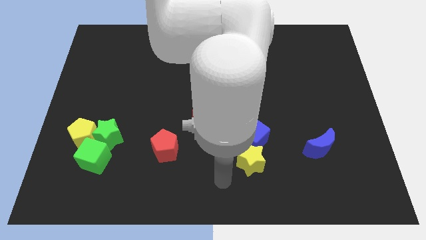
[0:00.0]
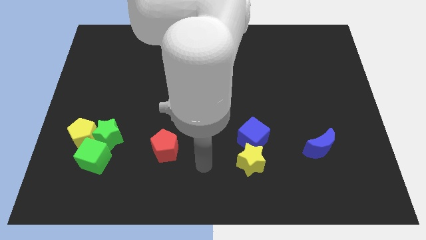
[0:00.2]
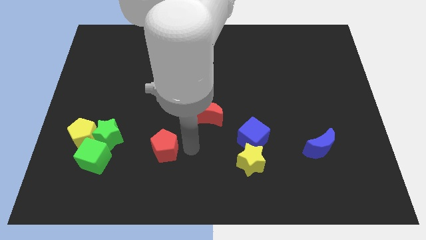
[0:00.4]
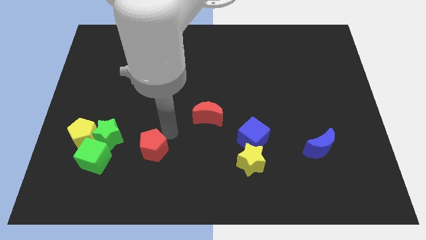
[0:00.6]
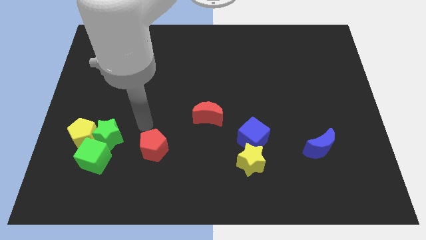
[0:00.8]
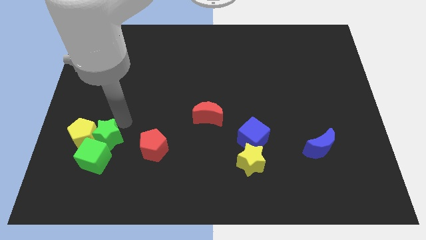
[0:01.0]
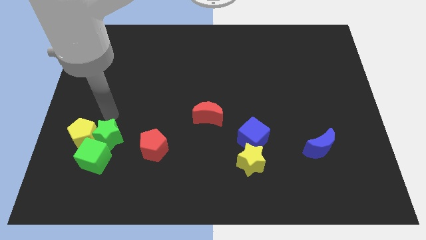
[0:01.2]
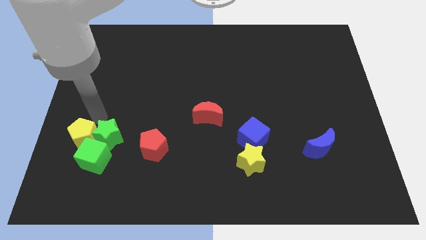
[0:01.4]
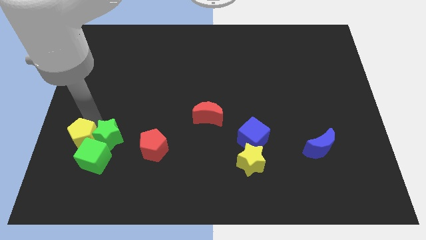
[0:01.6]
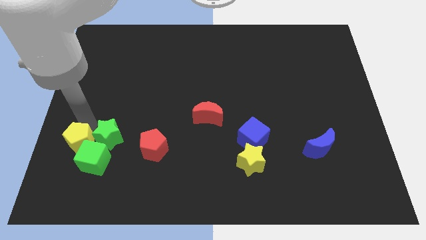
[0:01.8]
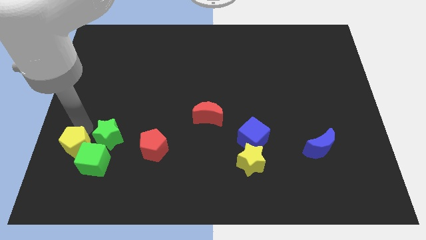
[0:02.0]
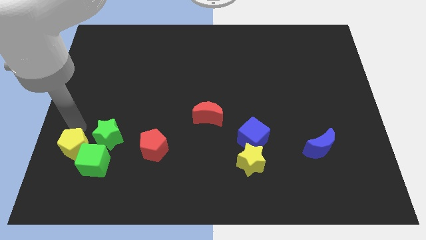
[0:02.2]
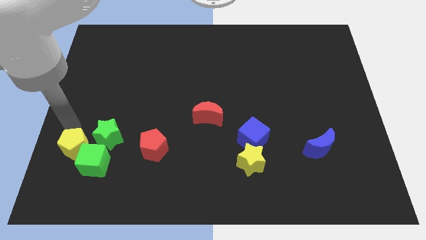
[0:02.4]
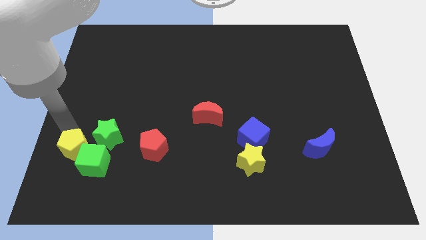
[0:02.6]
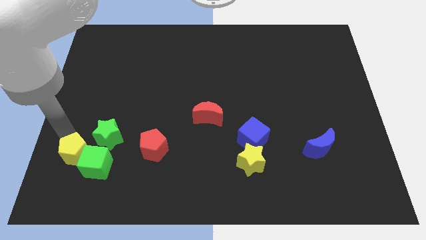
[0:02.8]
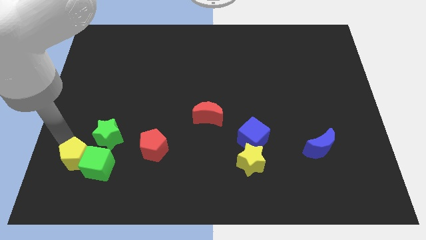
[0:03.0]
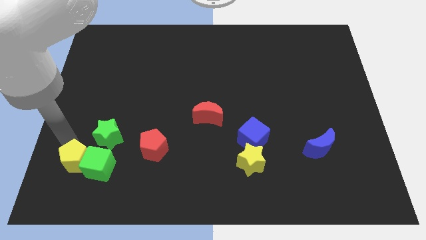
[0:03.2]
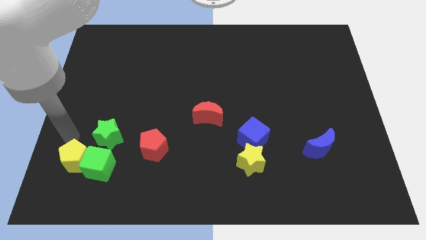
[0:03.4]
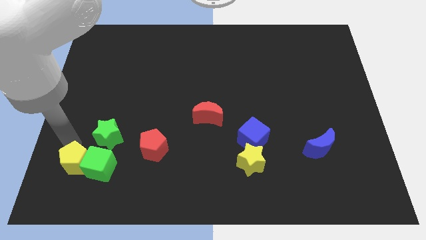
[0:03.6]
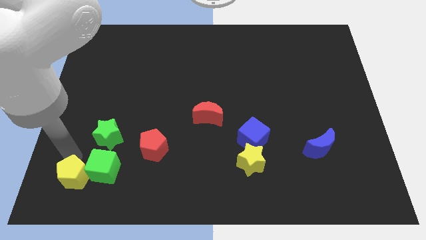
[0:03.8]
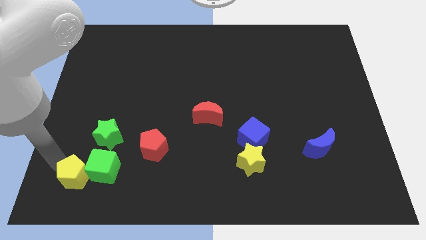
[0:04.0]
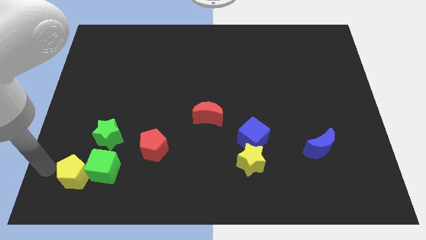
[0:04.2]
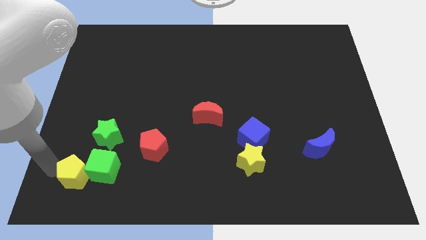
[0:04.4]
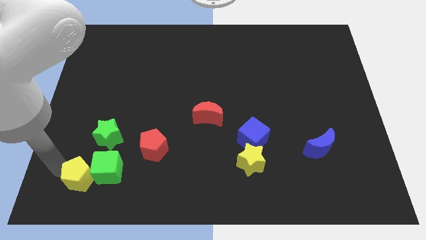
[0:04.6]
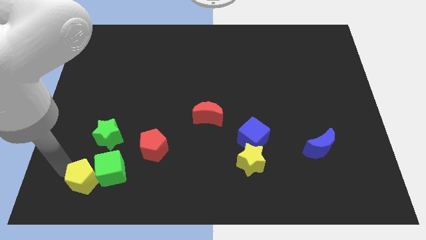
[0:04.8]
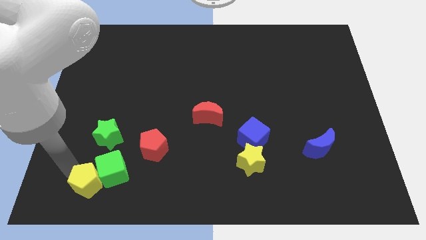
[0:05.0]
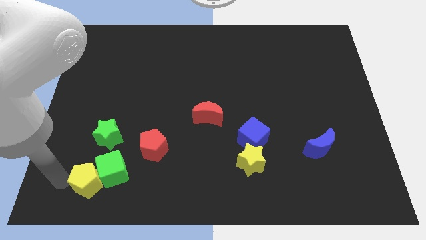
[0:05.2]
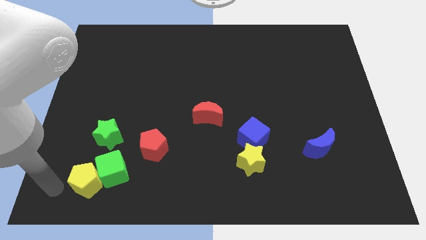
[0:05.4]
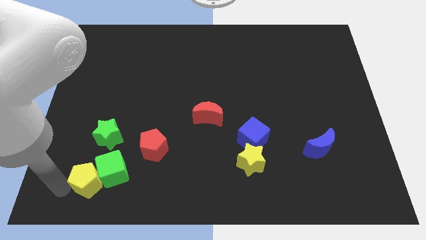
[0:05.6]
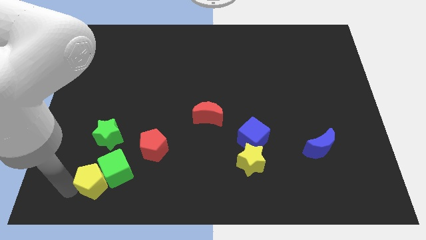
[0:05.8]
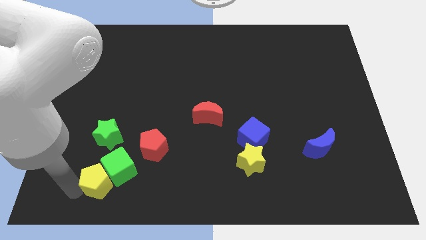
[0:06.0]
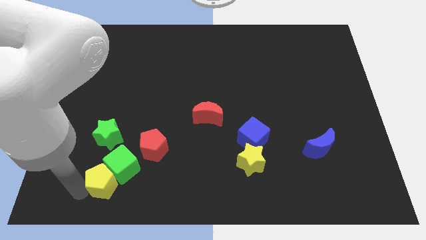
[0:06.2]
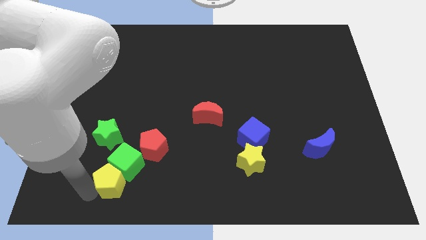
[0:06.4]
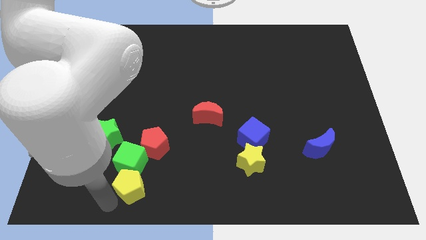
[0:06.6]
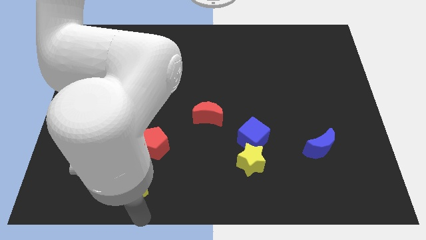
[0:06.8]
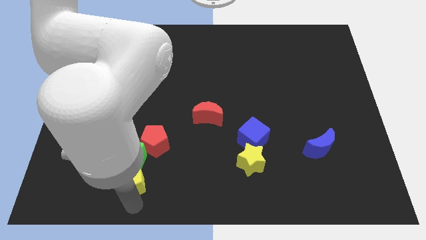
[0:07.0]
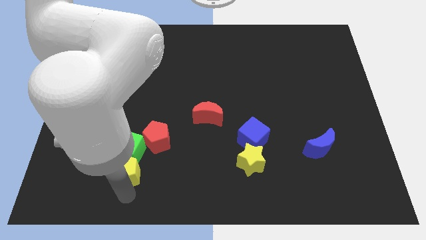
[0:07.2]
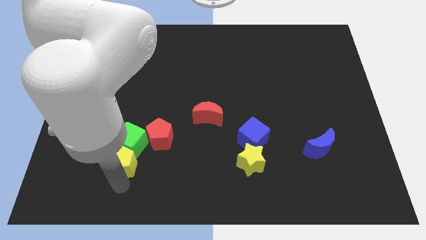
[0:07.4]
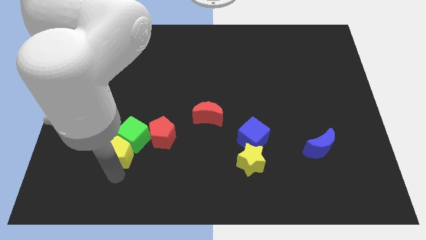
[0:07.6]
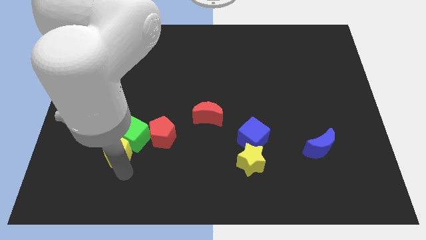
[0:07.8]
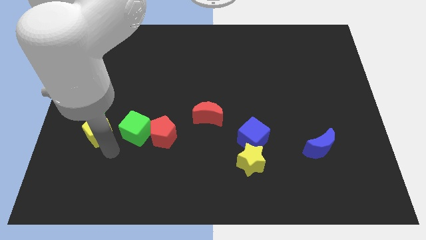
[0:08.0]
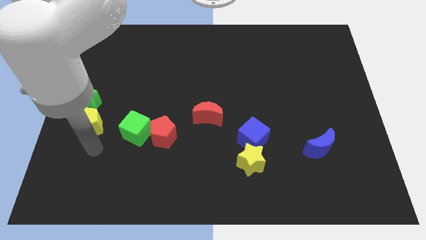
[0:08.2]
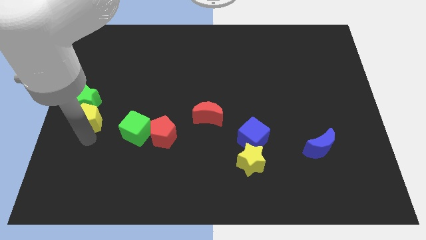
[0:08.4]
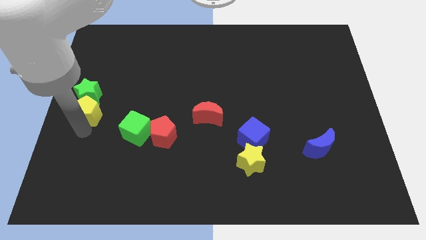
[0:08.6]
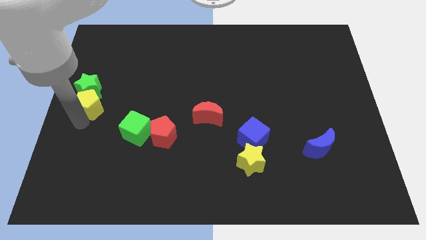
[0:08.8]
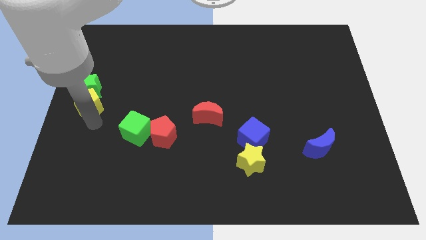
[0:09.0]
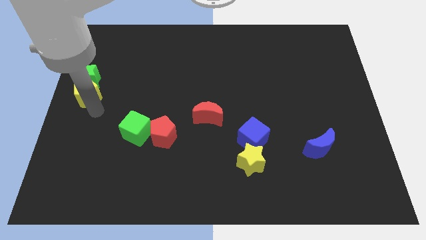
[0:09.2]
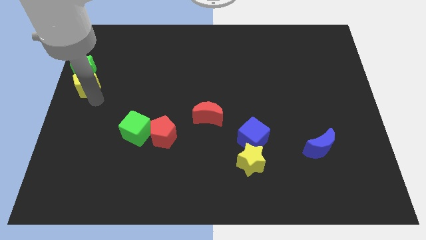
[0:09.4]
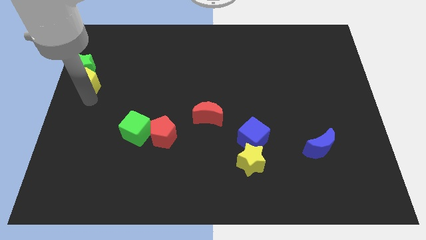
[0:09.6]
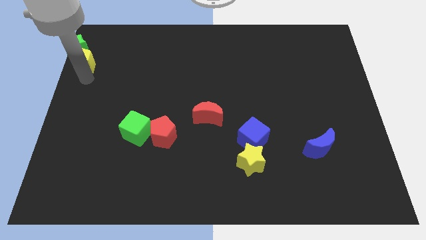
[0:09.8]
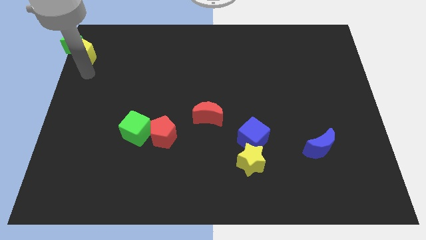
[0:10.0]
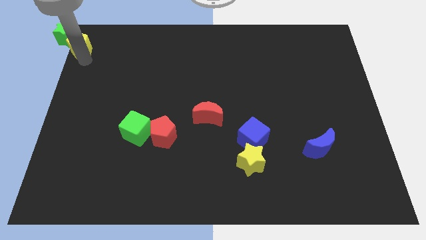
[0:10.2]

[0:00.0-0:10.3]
put the yellow pentagon to the top left
